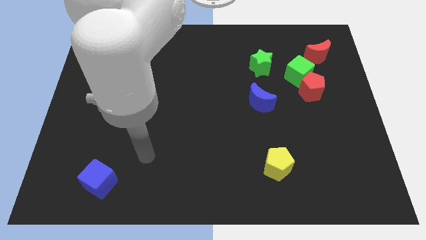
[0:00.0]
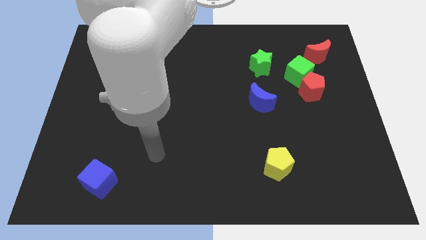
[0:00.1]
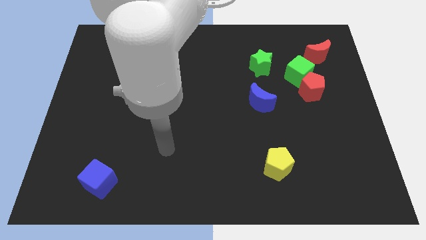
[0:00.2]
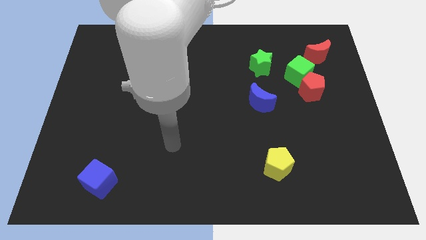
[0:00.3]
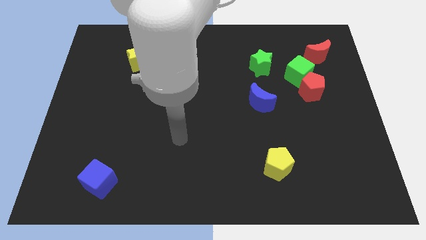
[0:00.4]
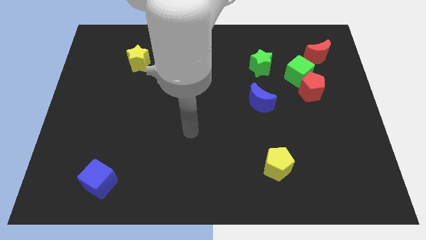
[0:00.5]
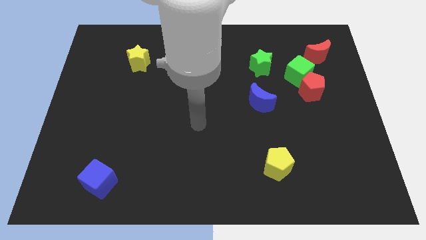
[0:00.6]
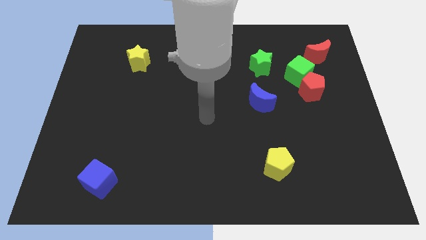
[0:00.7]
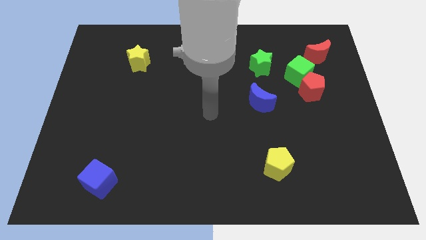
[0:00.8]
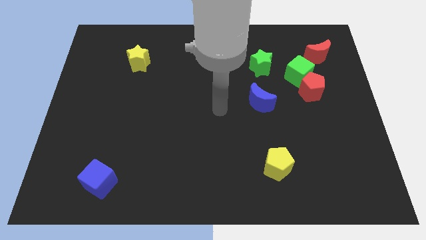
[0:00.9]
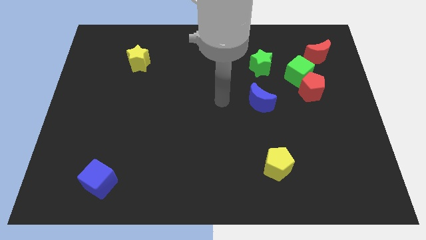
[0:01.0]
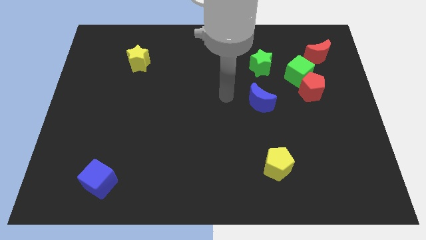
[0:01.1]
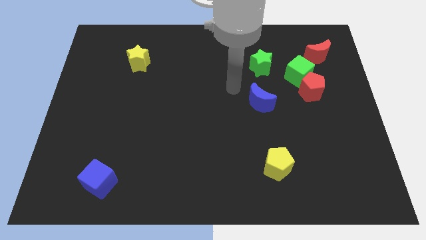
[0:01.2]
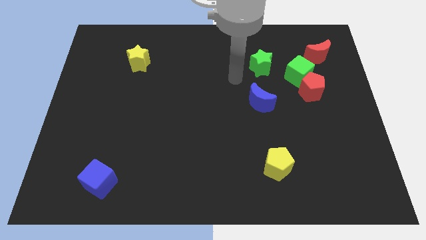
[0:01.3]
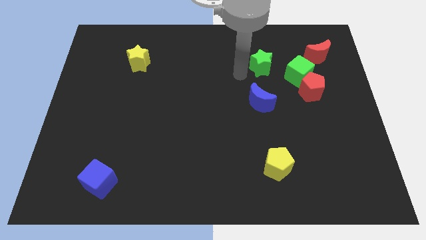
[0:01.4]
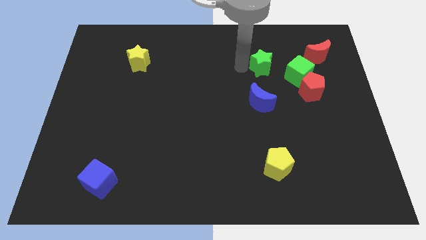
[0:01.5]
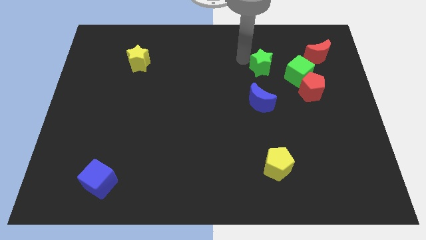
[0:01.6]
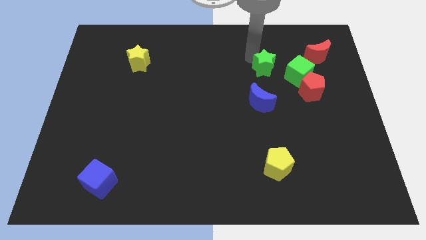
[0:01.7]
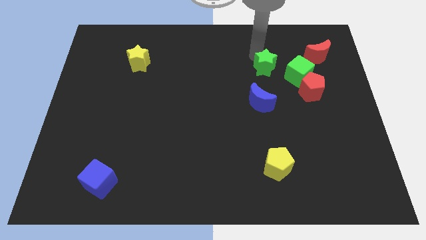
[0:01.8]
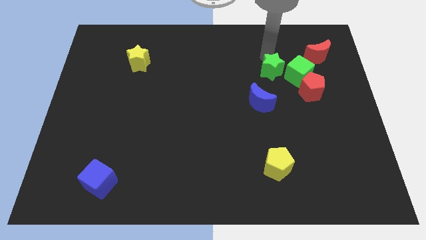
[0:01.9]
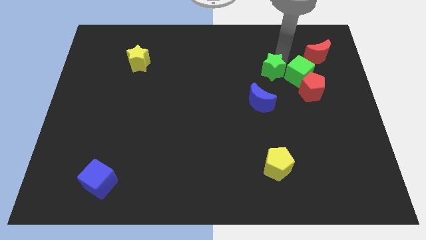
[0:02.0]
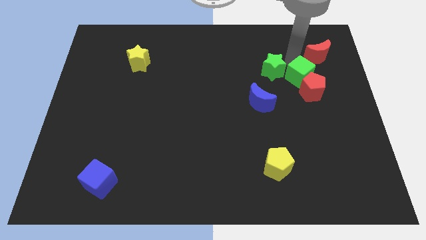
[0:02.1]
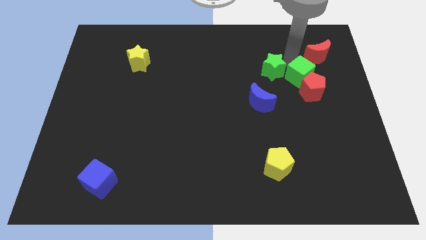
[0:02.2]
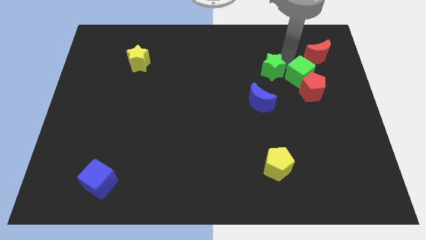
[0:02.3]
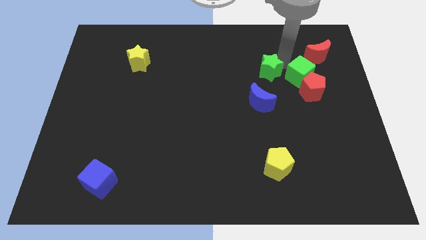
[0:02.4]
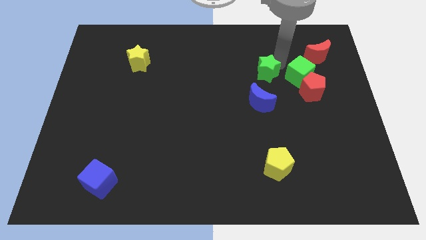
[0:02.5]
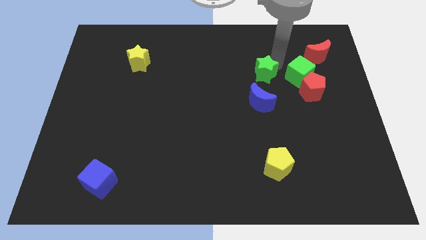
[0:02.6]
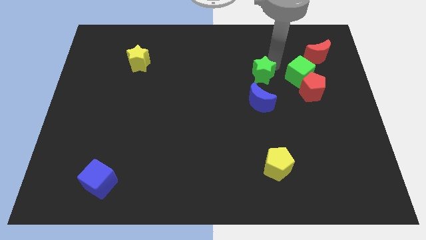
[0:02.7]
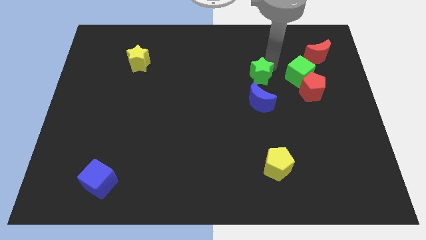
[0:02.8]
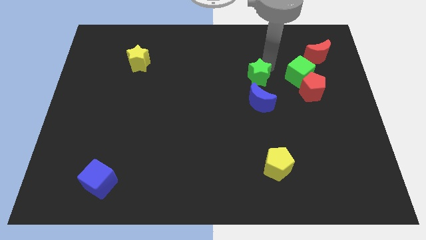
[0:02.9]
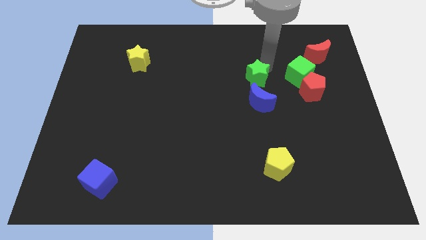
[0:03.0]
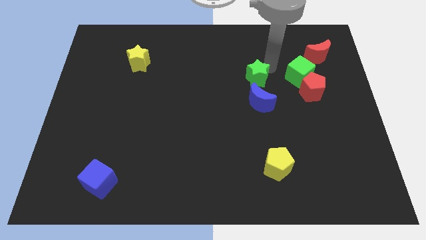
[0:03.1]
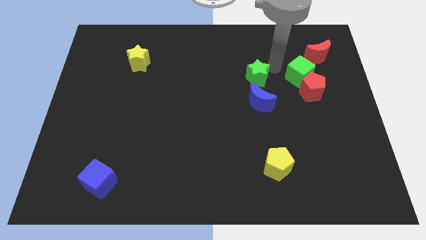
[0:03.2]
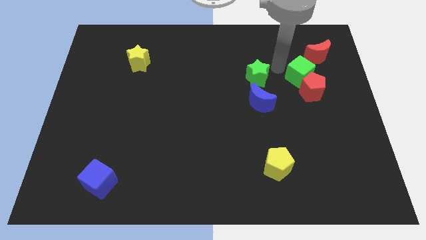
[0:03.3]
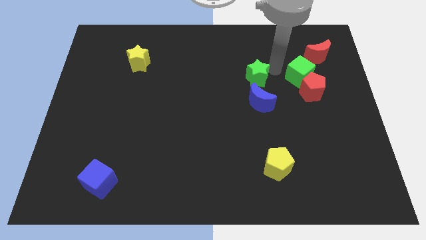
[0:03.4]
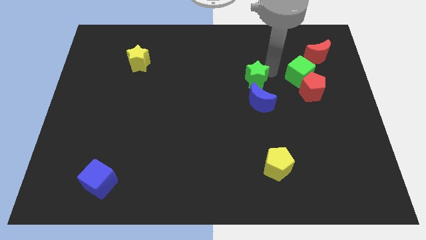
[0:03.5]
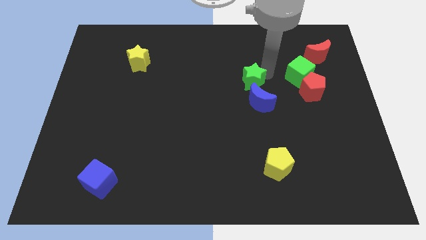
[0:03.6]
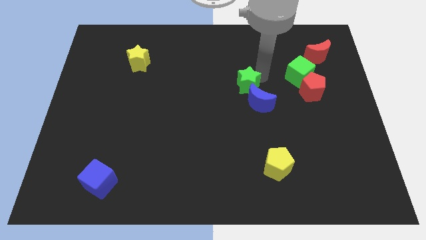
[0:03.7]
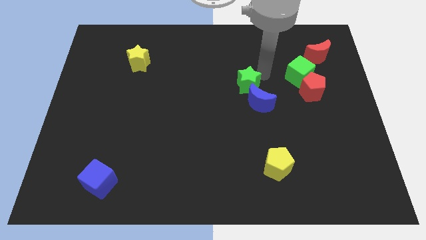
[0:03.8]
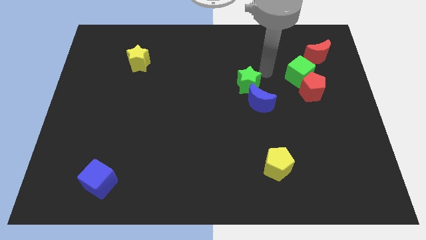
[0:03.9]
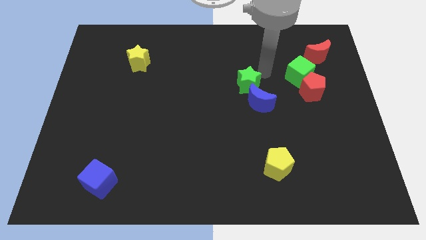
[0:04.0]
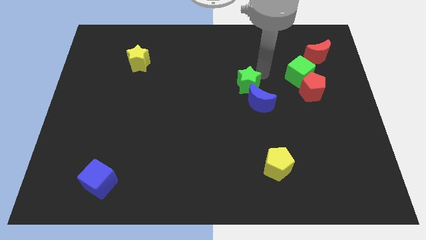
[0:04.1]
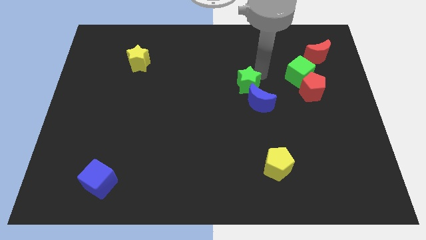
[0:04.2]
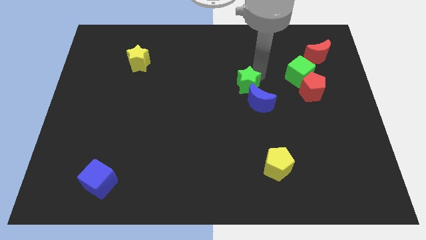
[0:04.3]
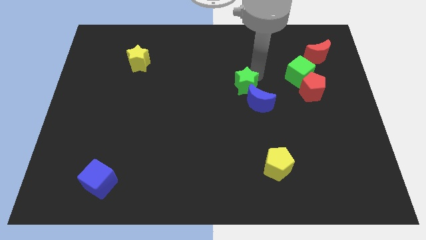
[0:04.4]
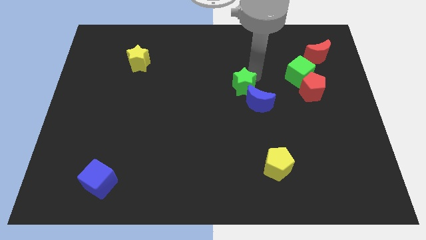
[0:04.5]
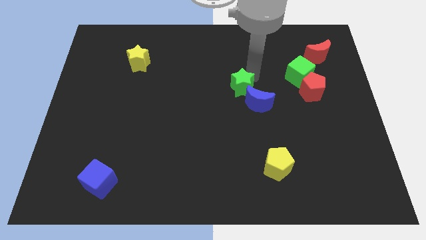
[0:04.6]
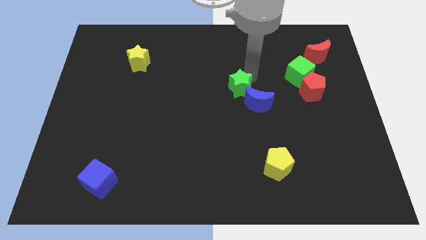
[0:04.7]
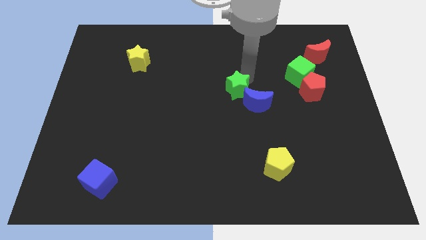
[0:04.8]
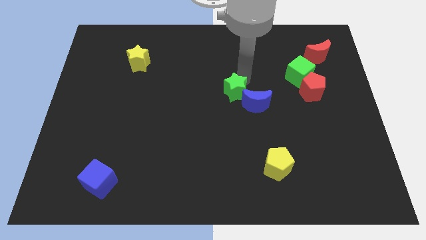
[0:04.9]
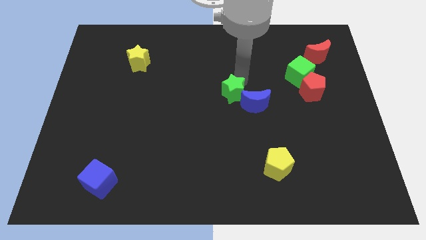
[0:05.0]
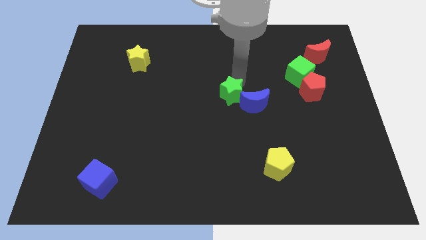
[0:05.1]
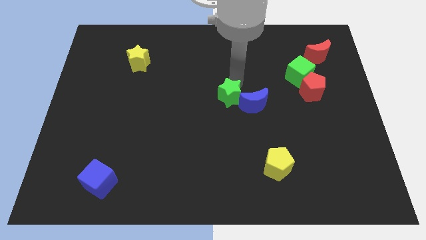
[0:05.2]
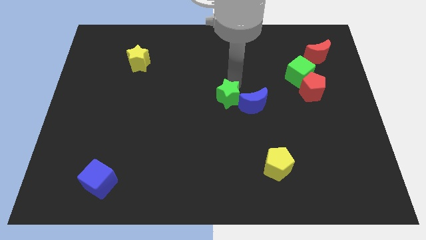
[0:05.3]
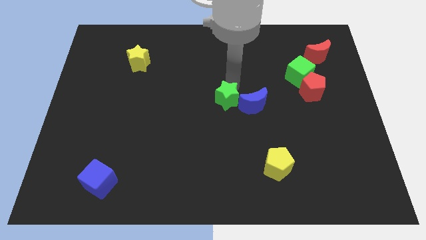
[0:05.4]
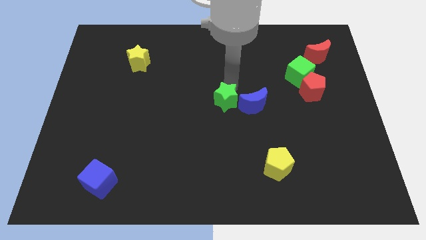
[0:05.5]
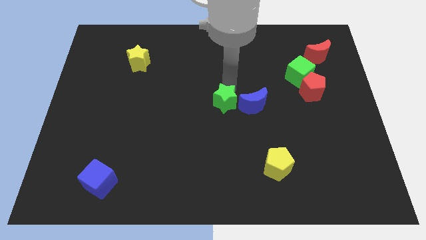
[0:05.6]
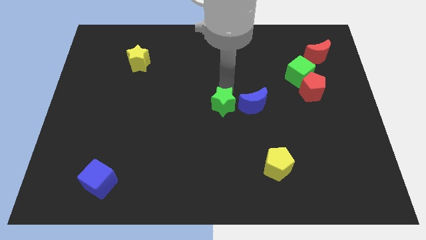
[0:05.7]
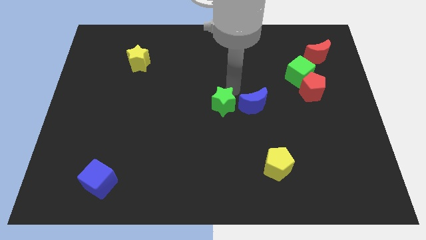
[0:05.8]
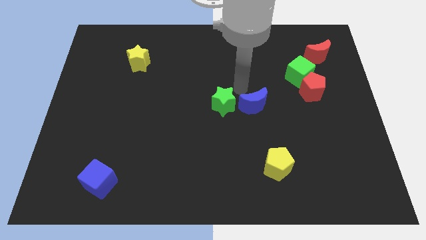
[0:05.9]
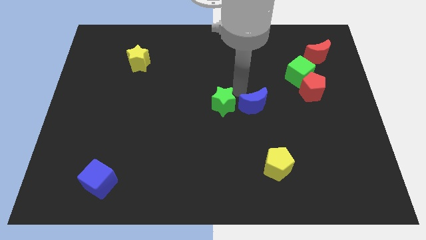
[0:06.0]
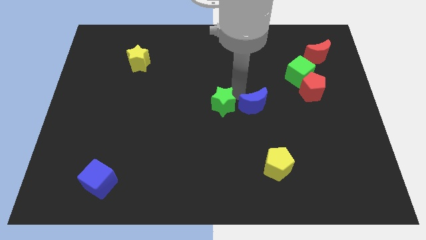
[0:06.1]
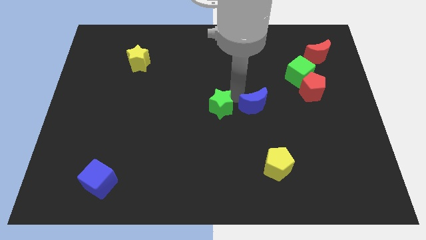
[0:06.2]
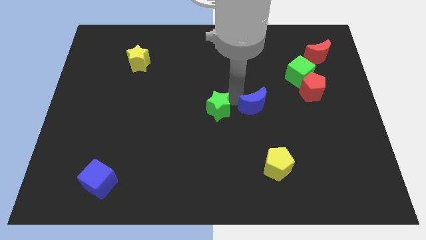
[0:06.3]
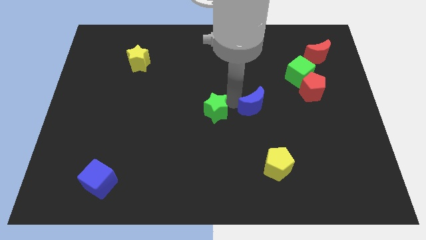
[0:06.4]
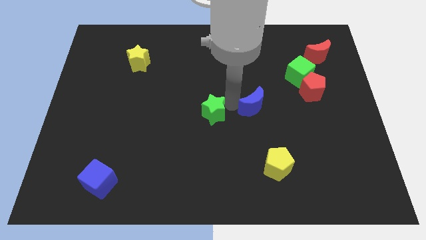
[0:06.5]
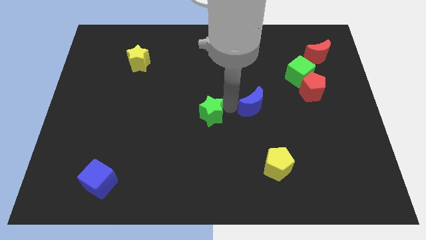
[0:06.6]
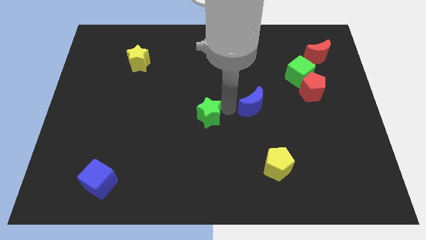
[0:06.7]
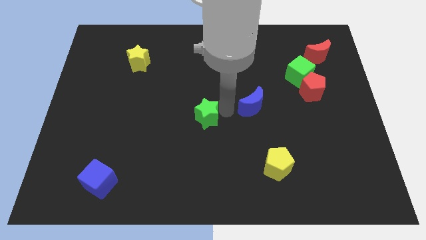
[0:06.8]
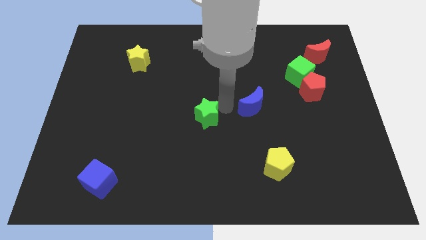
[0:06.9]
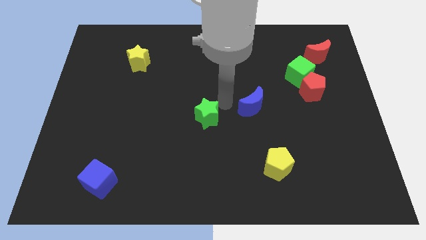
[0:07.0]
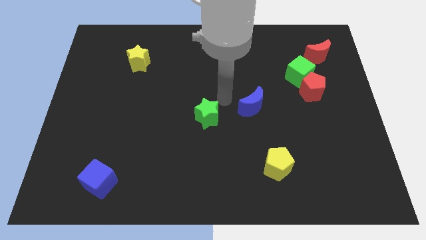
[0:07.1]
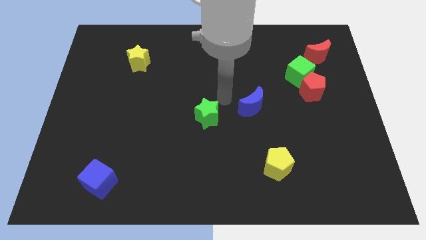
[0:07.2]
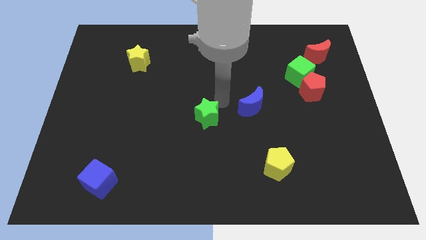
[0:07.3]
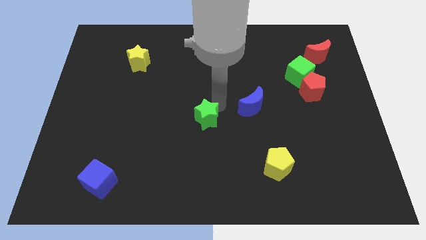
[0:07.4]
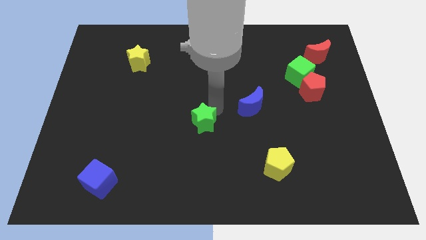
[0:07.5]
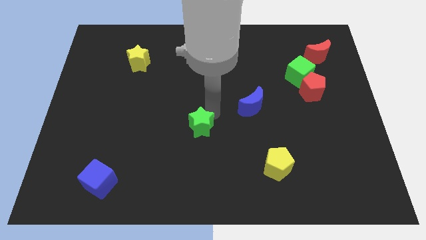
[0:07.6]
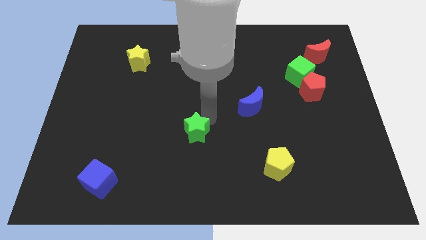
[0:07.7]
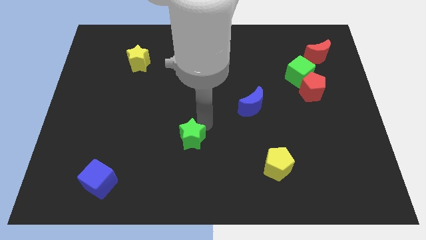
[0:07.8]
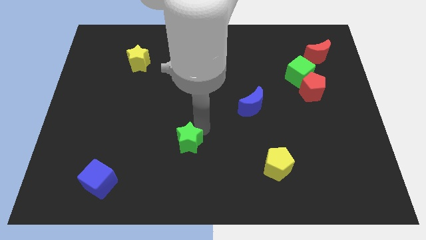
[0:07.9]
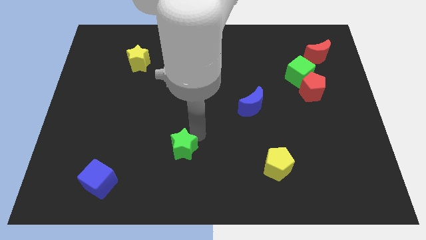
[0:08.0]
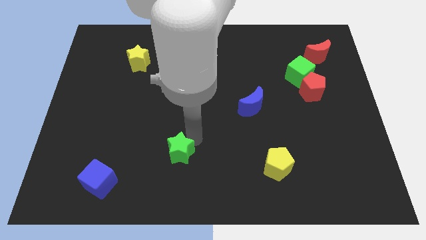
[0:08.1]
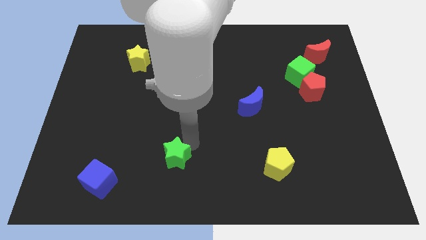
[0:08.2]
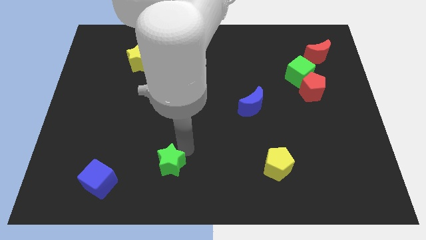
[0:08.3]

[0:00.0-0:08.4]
move the green star just right of the blue cube
